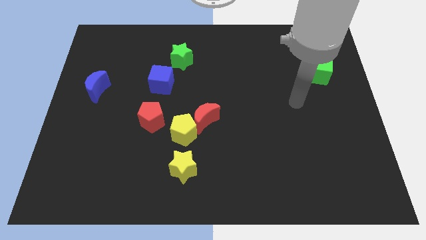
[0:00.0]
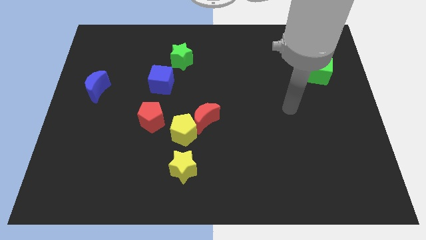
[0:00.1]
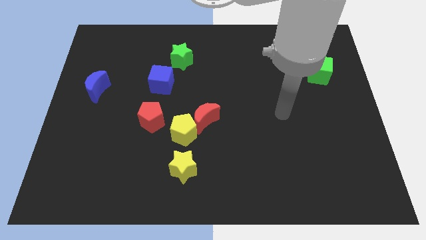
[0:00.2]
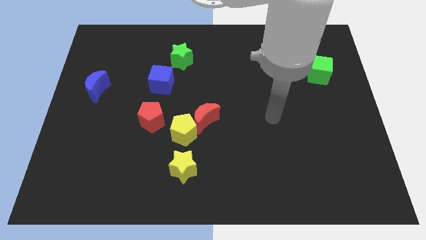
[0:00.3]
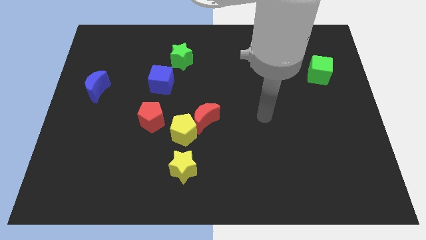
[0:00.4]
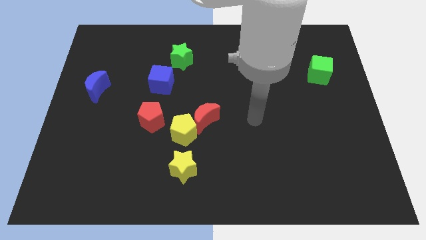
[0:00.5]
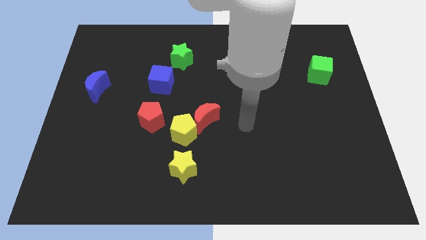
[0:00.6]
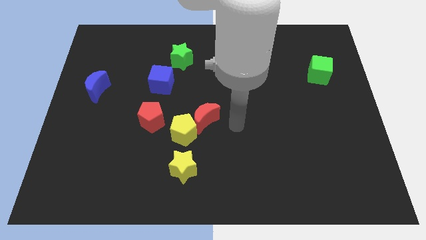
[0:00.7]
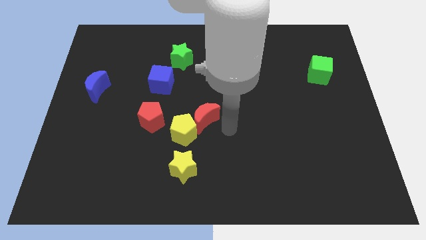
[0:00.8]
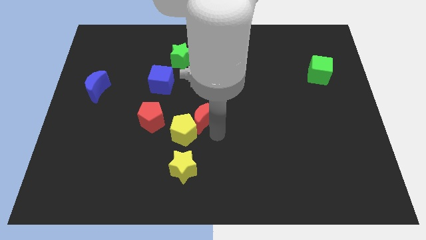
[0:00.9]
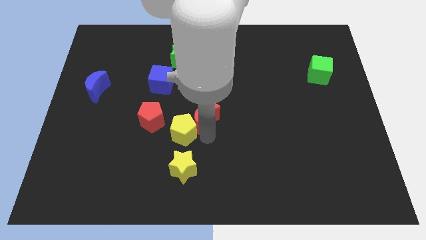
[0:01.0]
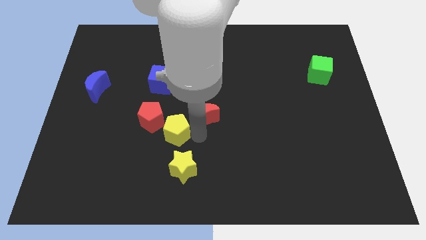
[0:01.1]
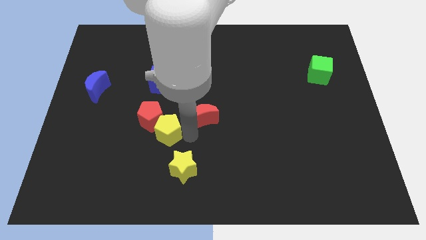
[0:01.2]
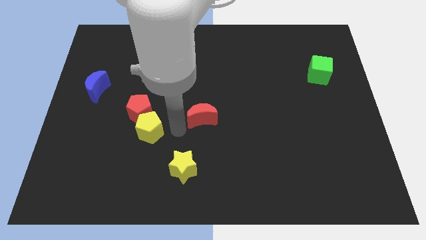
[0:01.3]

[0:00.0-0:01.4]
separate the red moon from the yellow pentagon

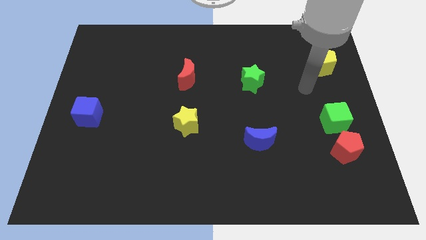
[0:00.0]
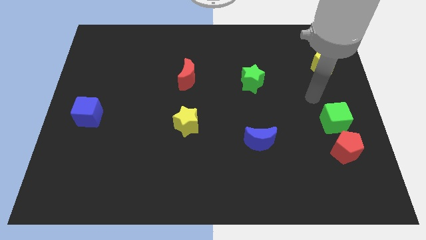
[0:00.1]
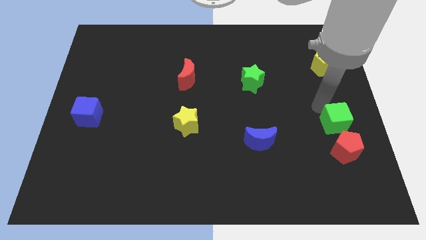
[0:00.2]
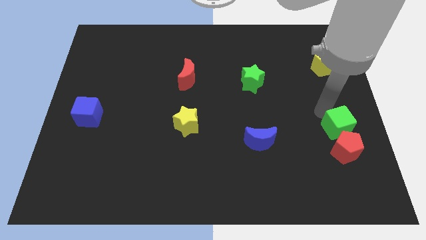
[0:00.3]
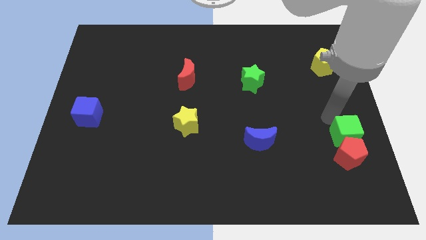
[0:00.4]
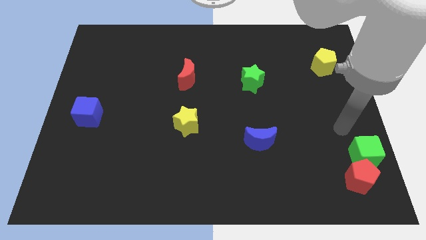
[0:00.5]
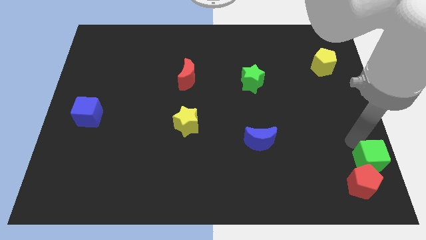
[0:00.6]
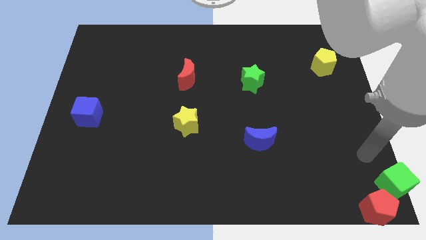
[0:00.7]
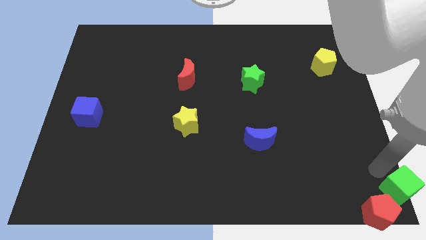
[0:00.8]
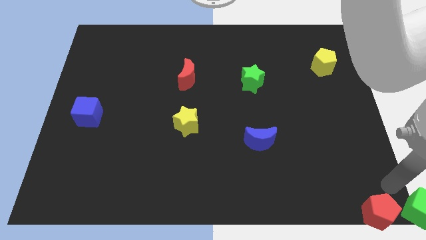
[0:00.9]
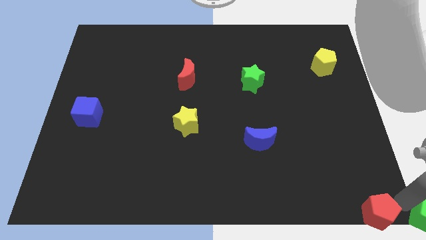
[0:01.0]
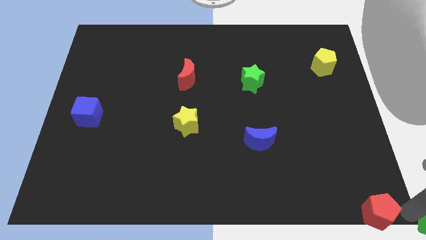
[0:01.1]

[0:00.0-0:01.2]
pull the red pentagon apart from the green cube

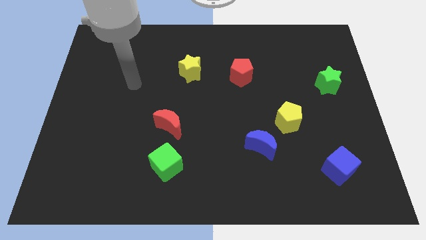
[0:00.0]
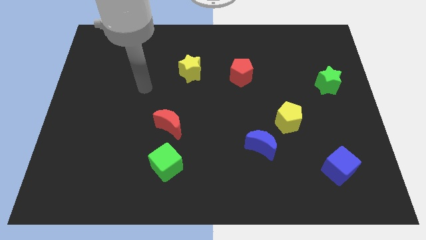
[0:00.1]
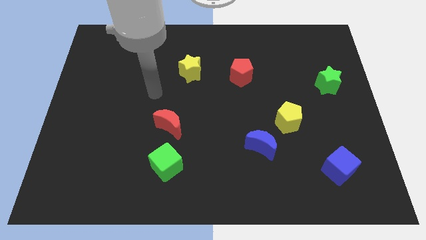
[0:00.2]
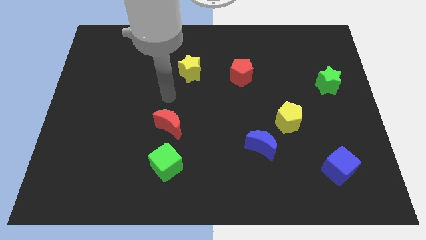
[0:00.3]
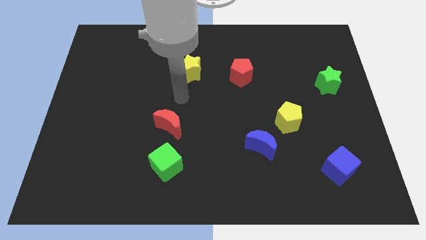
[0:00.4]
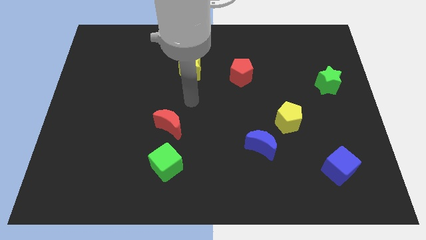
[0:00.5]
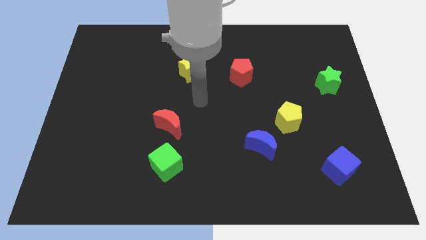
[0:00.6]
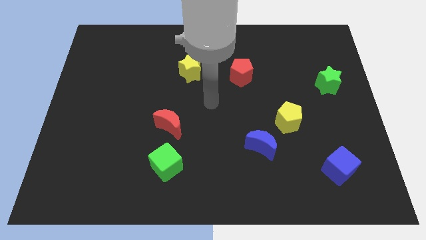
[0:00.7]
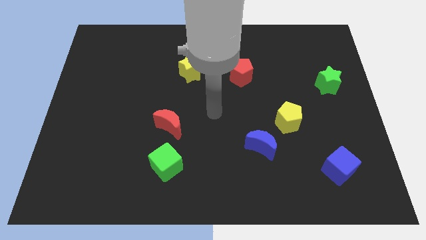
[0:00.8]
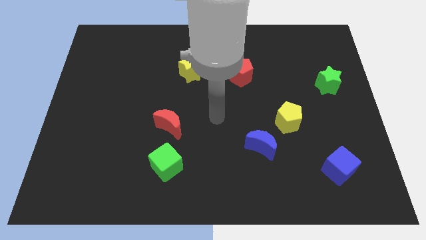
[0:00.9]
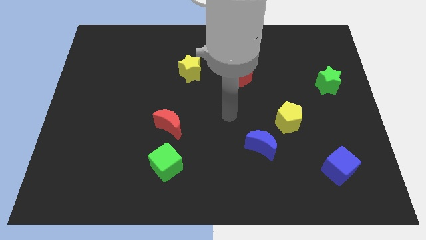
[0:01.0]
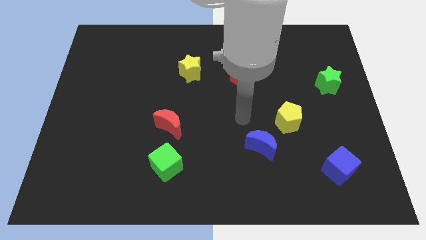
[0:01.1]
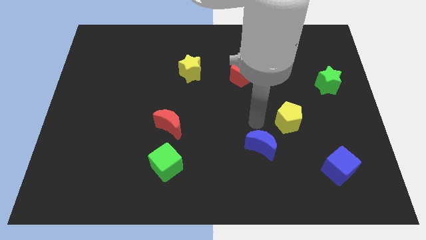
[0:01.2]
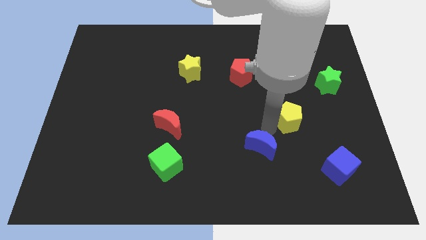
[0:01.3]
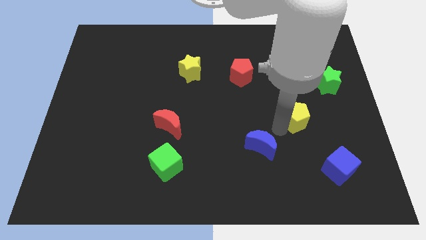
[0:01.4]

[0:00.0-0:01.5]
separate the blue moon from the yellow pentagon

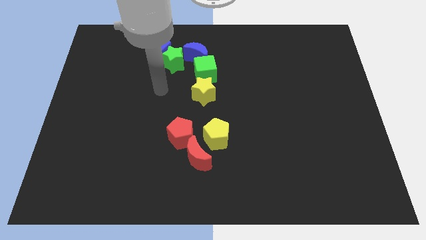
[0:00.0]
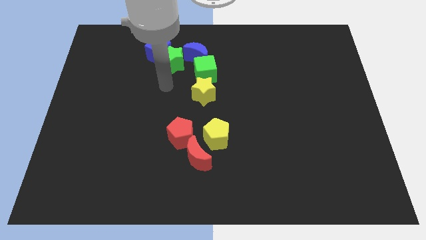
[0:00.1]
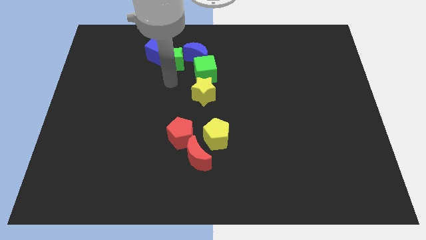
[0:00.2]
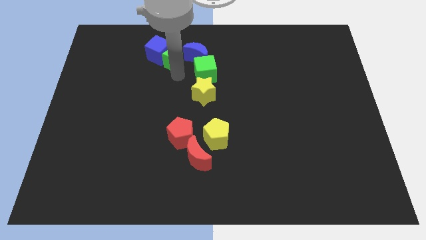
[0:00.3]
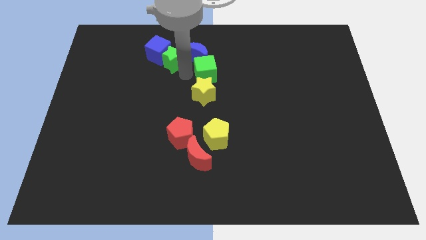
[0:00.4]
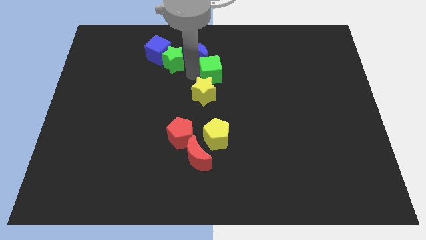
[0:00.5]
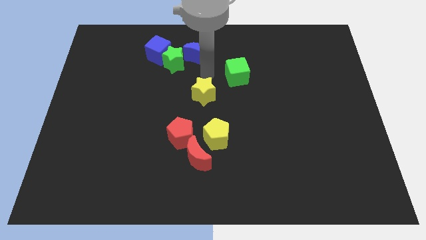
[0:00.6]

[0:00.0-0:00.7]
pull the yellow star apart from the green cube

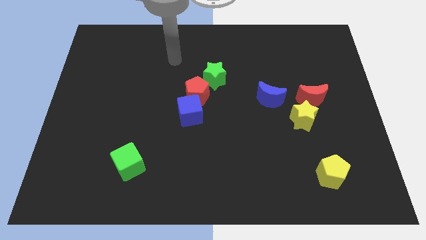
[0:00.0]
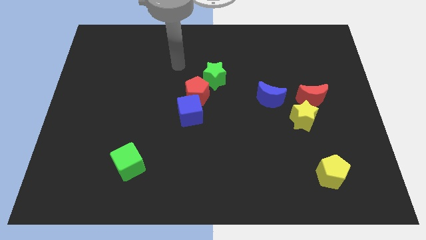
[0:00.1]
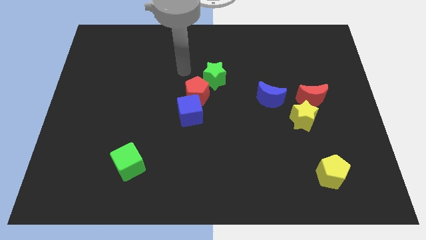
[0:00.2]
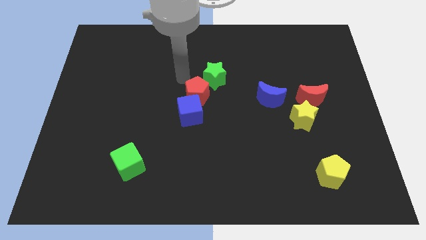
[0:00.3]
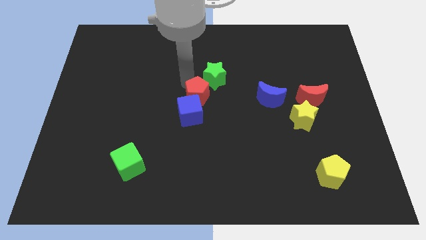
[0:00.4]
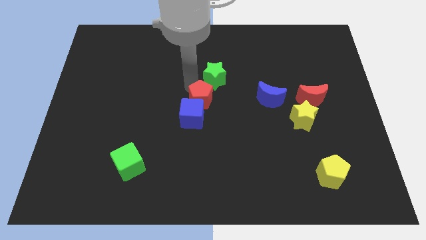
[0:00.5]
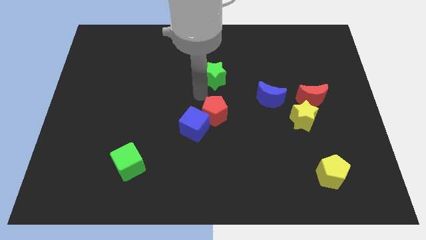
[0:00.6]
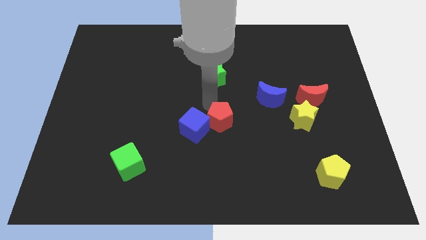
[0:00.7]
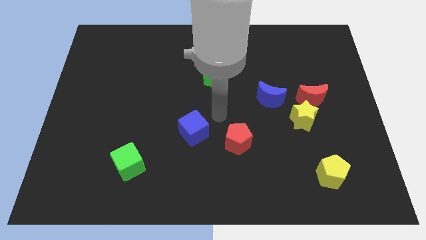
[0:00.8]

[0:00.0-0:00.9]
separate the blue cube from the red pentagon

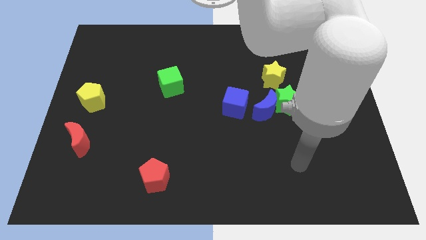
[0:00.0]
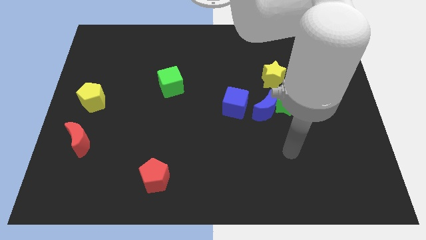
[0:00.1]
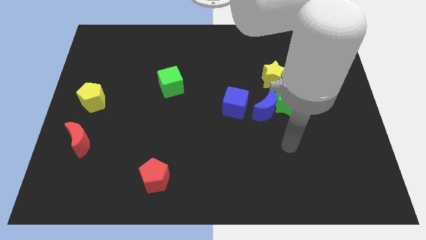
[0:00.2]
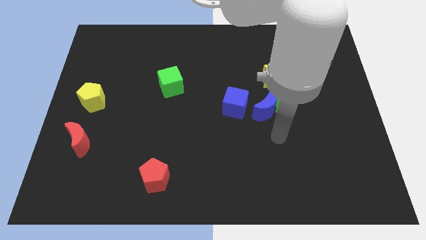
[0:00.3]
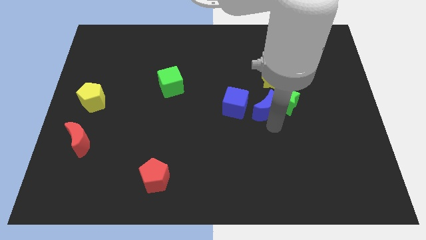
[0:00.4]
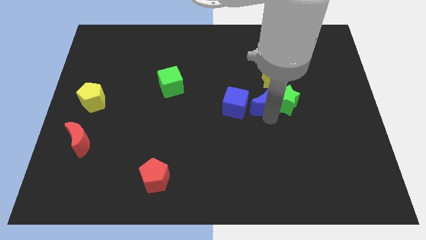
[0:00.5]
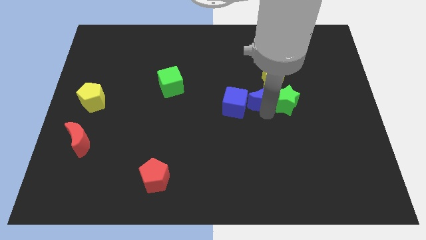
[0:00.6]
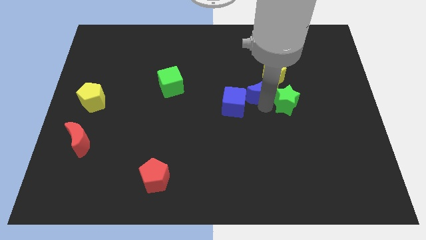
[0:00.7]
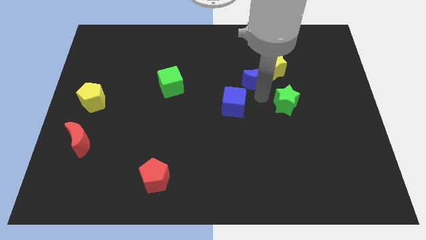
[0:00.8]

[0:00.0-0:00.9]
separate the green star from the blue moon and yellow star

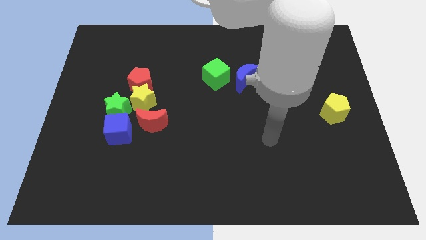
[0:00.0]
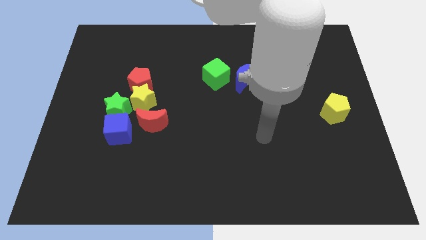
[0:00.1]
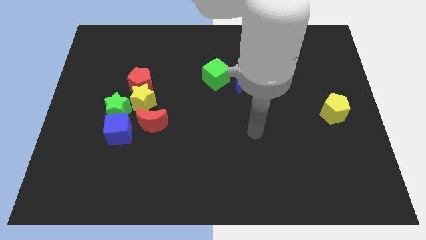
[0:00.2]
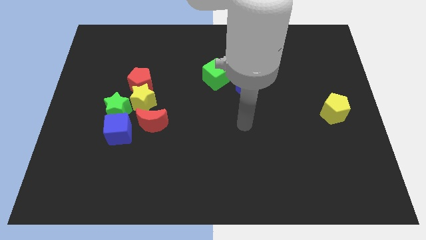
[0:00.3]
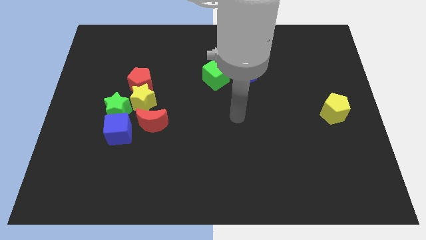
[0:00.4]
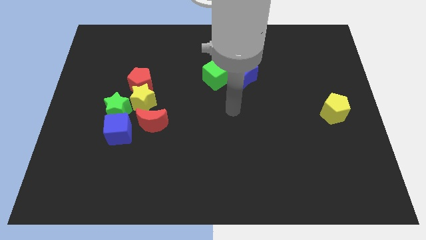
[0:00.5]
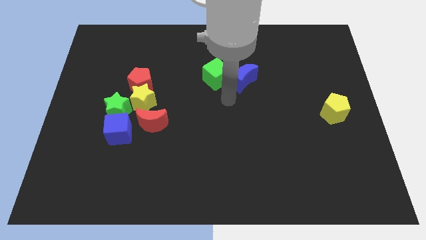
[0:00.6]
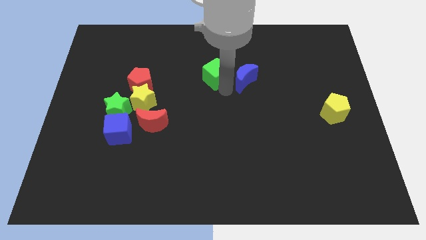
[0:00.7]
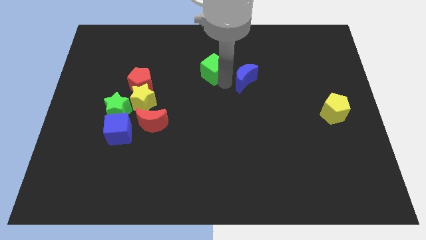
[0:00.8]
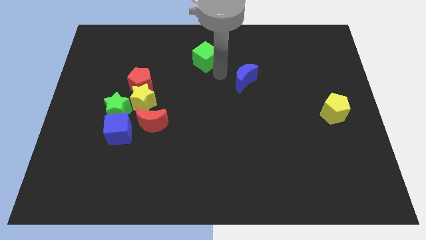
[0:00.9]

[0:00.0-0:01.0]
pull the blue moon apart from the green cube

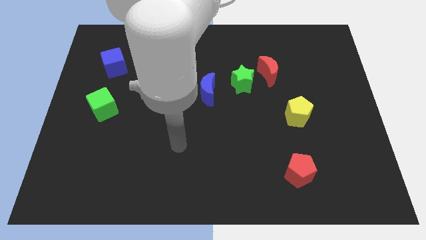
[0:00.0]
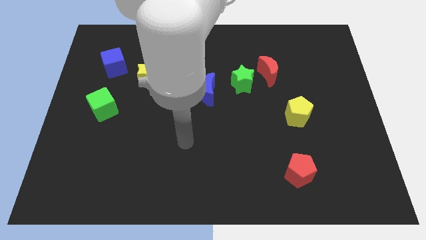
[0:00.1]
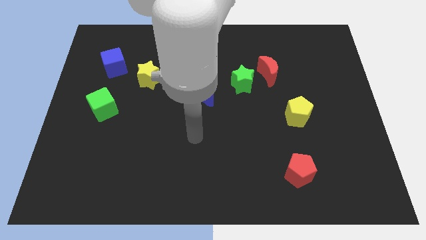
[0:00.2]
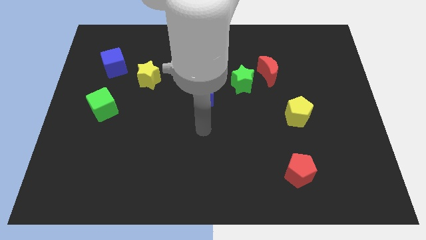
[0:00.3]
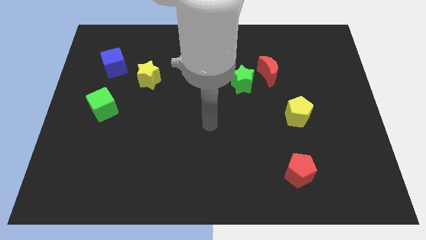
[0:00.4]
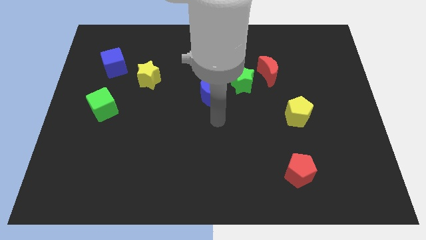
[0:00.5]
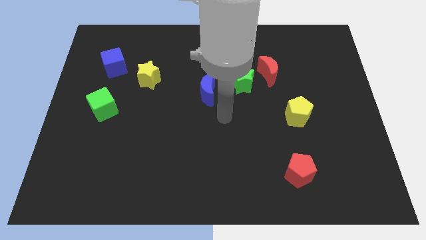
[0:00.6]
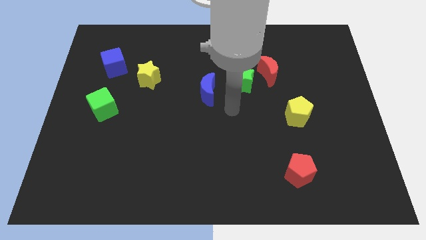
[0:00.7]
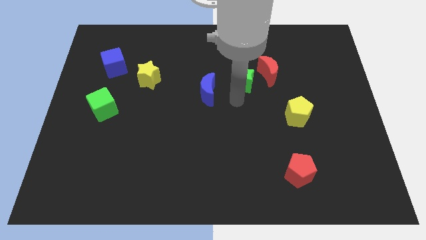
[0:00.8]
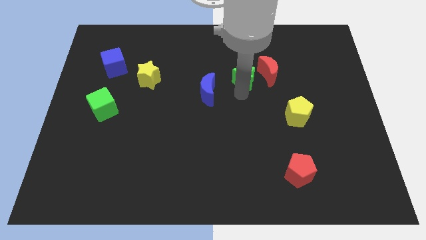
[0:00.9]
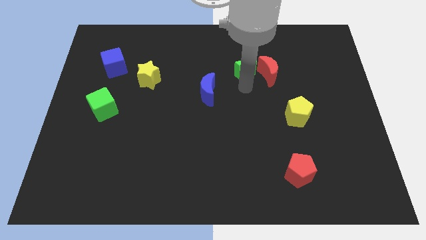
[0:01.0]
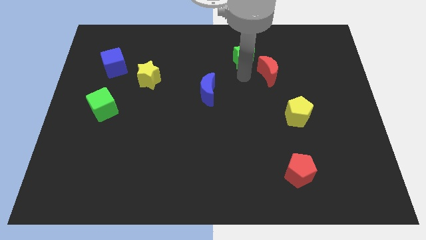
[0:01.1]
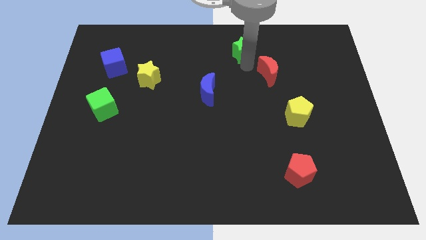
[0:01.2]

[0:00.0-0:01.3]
separate the red moon from the green star

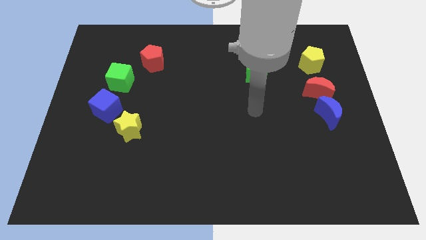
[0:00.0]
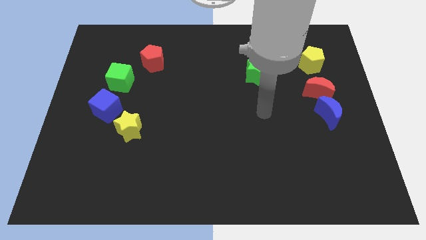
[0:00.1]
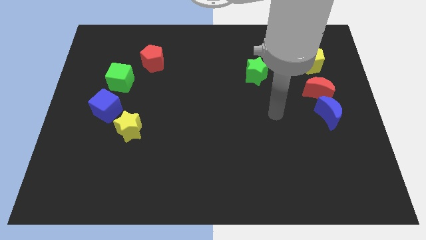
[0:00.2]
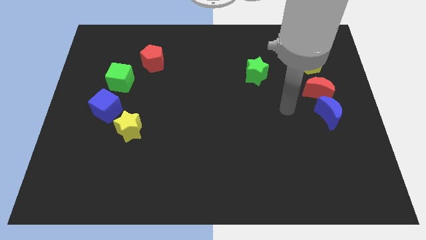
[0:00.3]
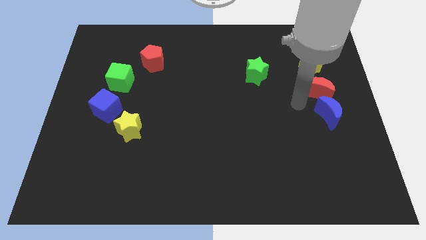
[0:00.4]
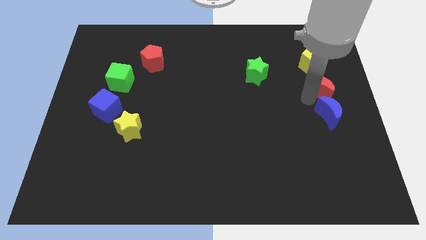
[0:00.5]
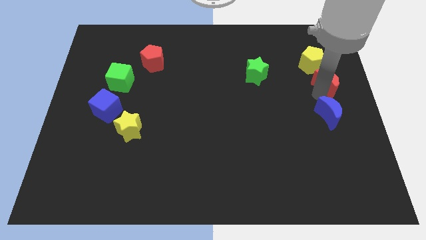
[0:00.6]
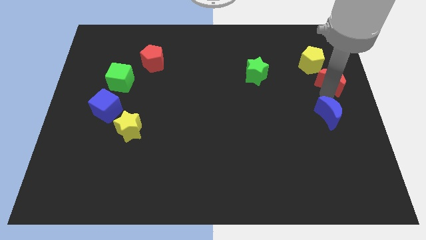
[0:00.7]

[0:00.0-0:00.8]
separate the blue moon from the red moon
